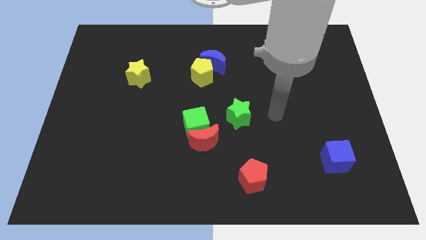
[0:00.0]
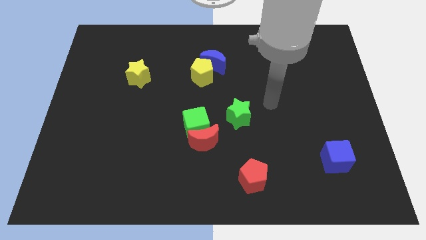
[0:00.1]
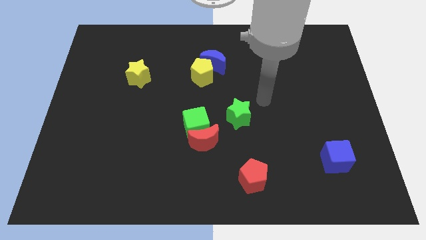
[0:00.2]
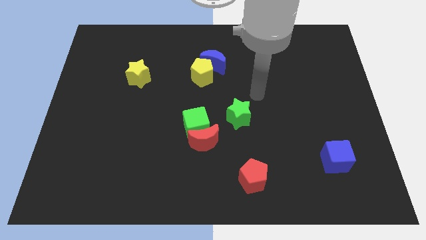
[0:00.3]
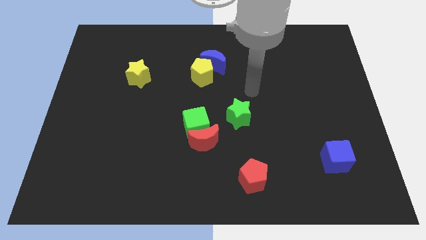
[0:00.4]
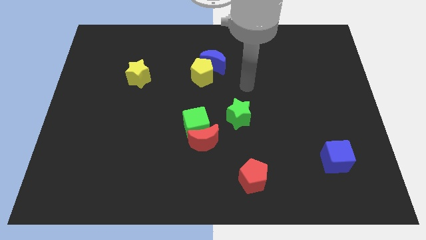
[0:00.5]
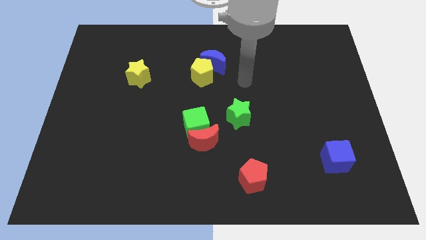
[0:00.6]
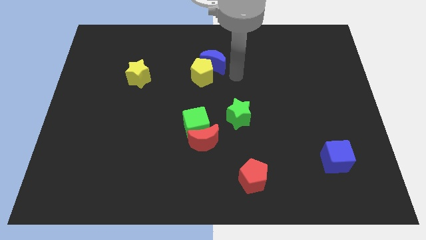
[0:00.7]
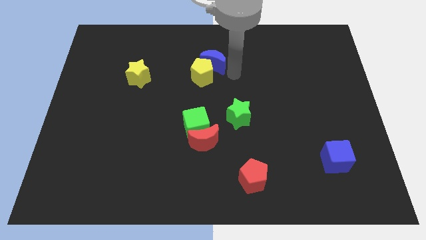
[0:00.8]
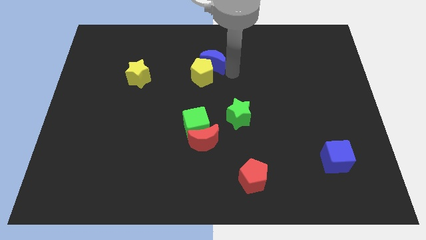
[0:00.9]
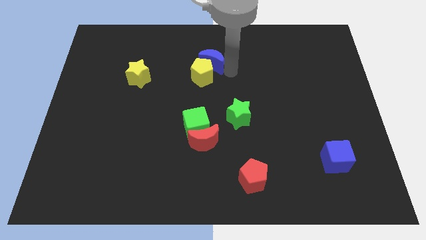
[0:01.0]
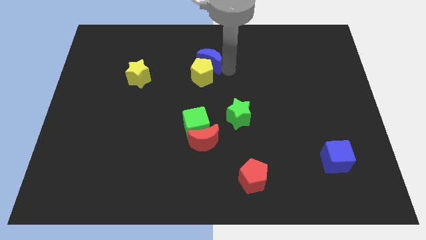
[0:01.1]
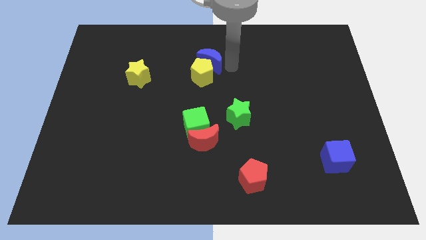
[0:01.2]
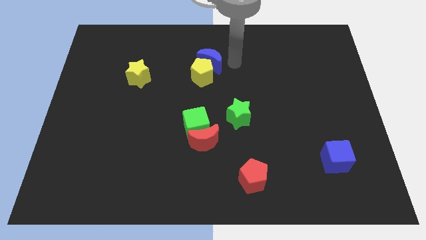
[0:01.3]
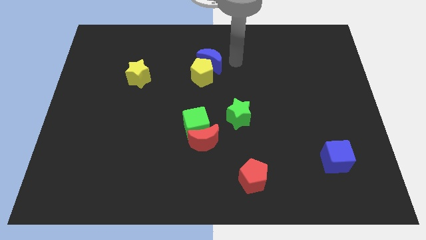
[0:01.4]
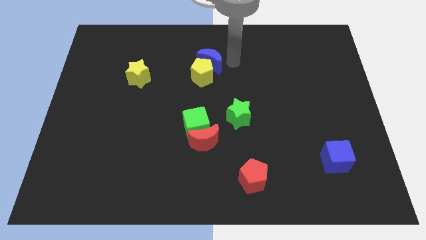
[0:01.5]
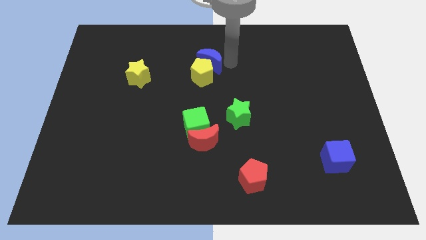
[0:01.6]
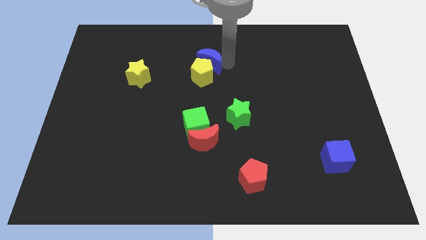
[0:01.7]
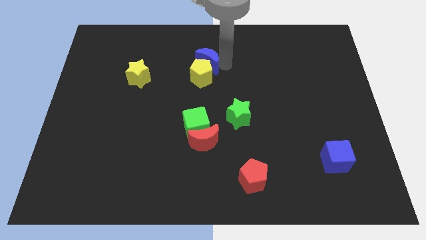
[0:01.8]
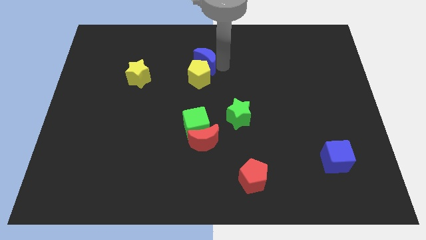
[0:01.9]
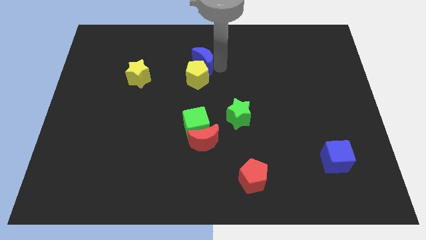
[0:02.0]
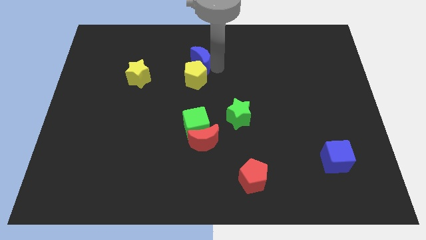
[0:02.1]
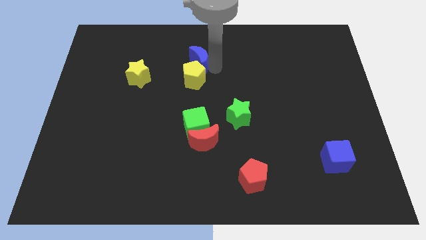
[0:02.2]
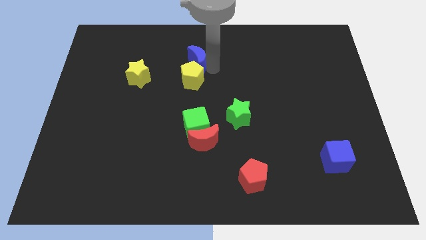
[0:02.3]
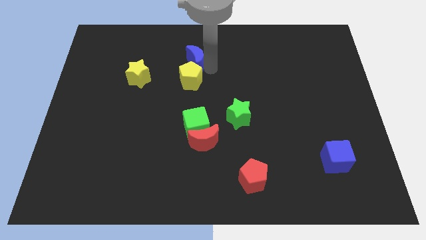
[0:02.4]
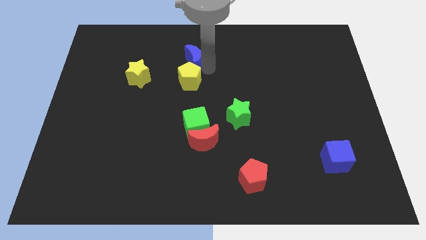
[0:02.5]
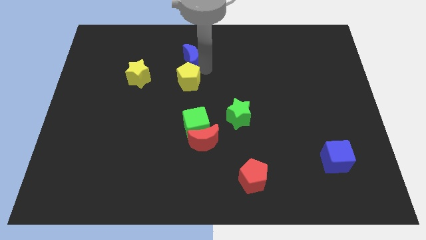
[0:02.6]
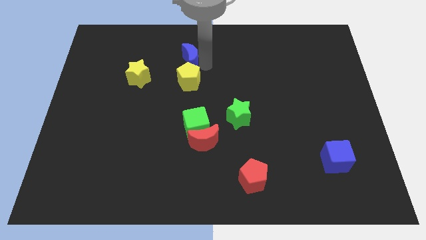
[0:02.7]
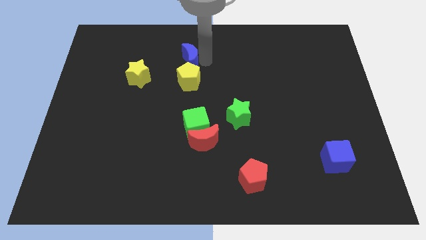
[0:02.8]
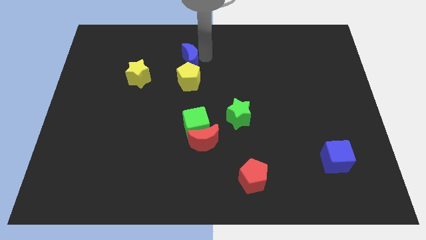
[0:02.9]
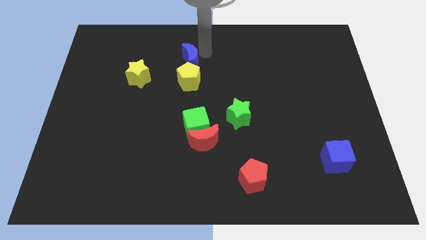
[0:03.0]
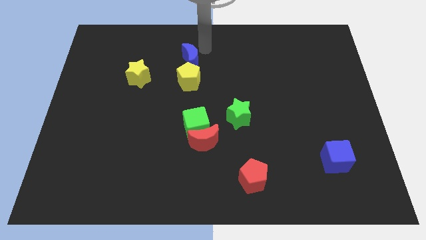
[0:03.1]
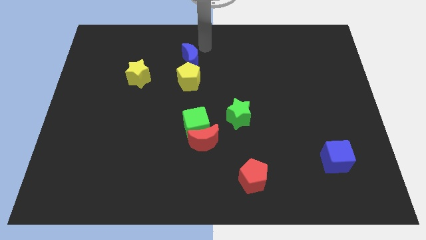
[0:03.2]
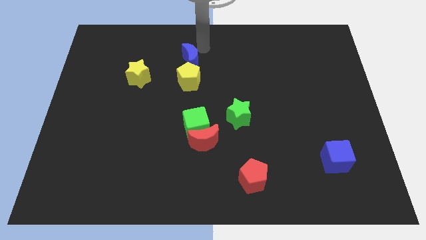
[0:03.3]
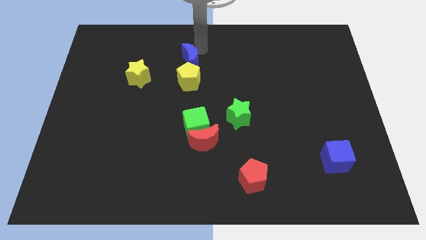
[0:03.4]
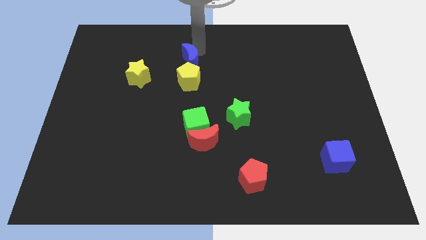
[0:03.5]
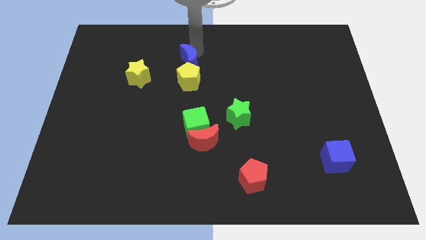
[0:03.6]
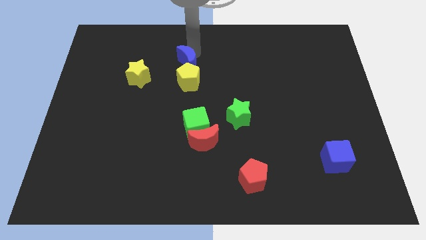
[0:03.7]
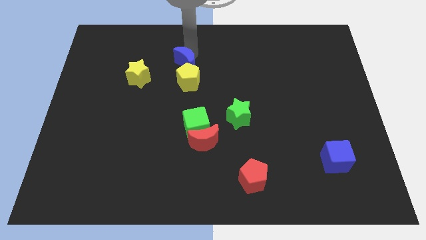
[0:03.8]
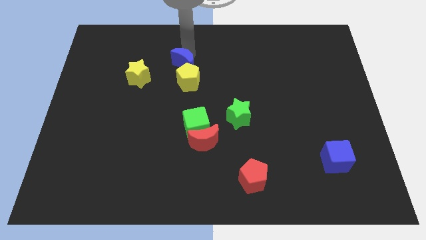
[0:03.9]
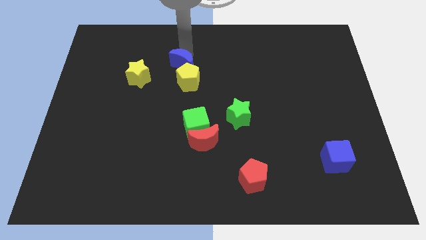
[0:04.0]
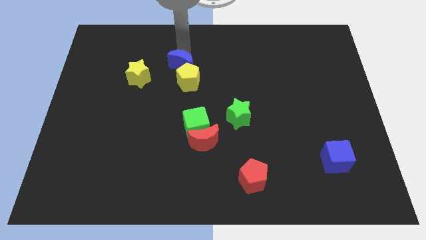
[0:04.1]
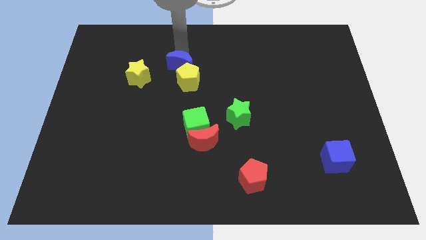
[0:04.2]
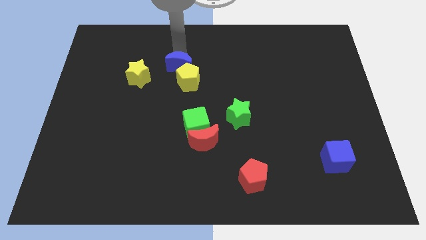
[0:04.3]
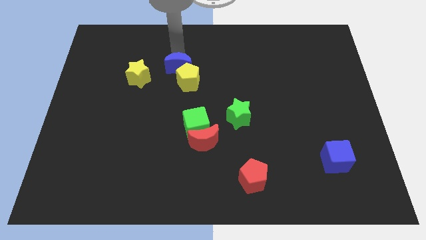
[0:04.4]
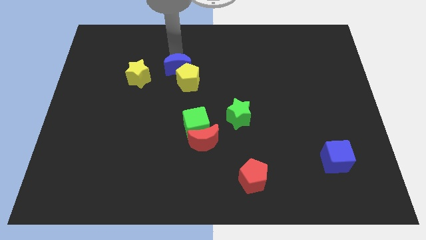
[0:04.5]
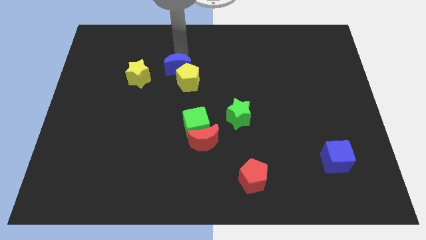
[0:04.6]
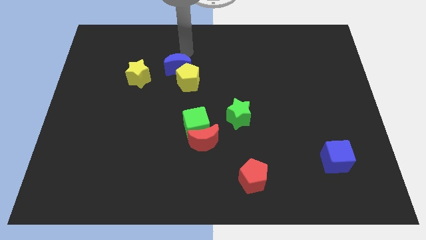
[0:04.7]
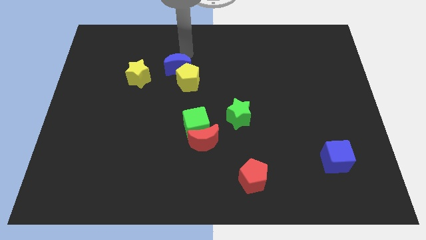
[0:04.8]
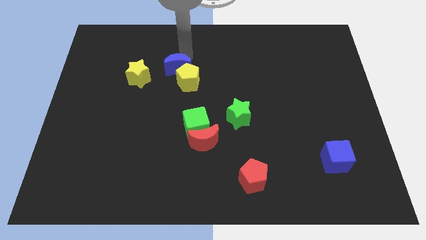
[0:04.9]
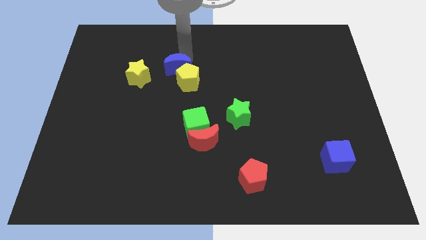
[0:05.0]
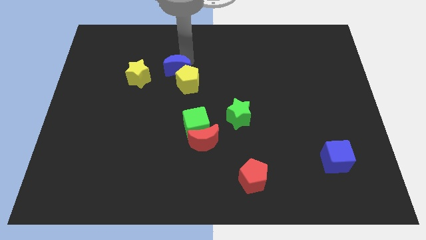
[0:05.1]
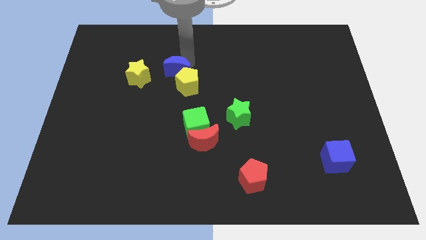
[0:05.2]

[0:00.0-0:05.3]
move the blue moon diagonally downwards and to the left a little bit

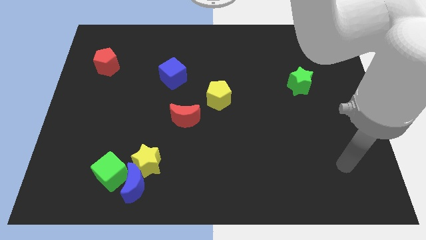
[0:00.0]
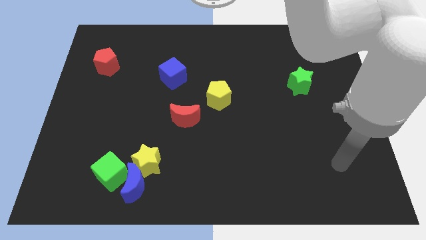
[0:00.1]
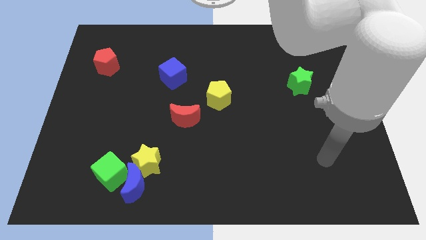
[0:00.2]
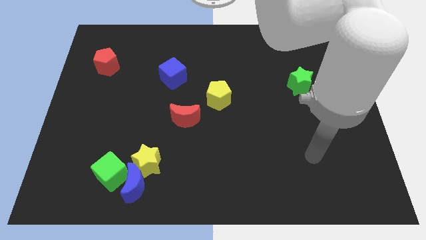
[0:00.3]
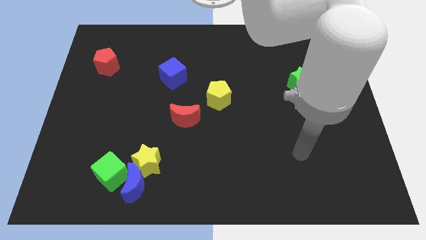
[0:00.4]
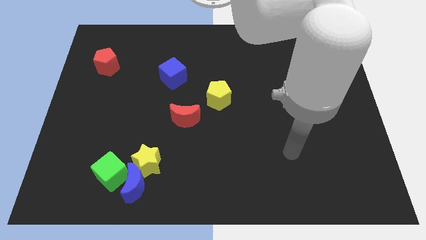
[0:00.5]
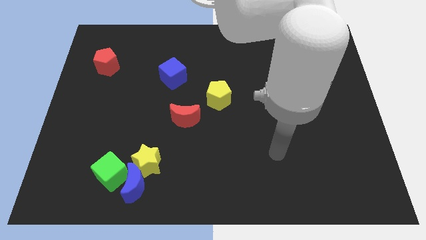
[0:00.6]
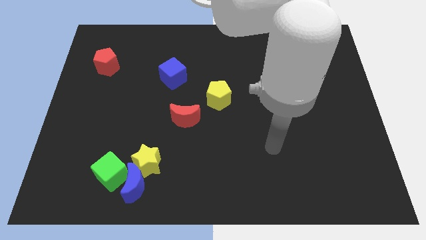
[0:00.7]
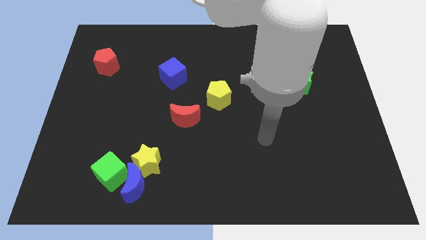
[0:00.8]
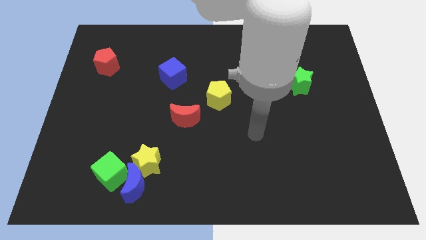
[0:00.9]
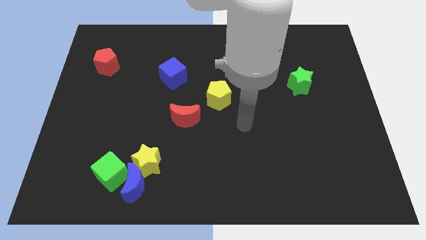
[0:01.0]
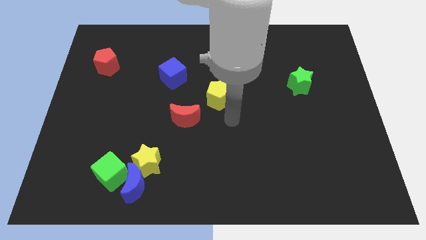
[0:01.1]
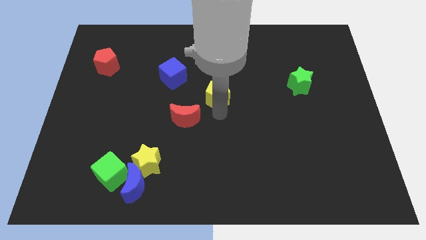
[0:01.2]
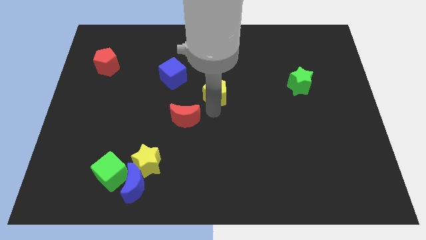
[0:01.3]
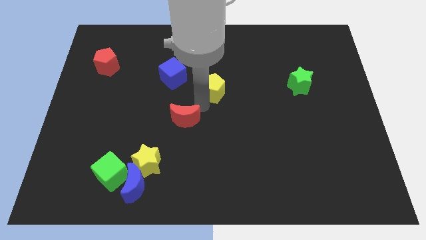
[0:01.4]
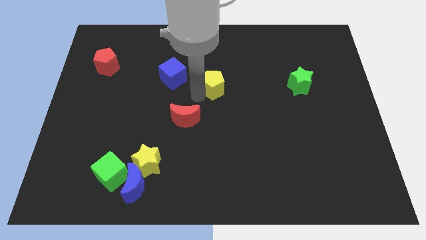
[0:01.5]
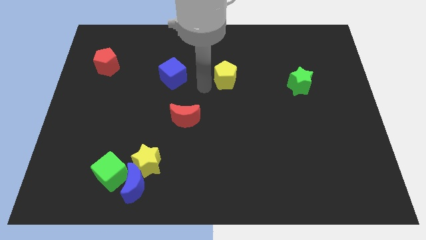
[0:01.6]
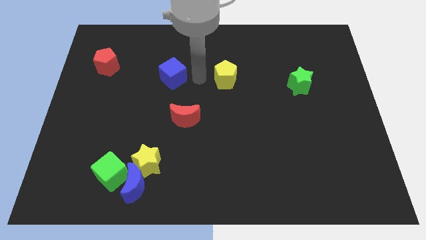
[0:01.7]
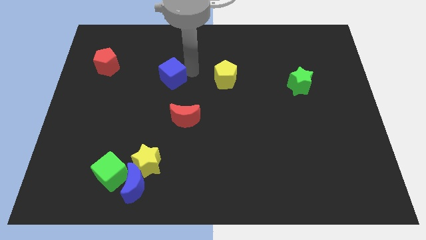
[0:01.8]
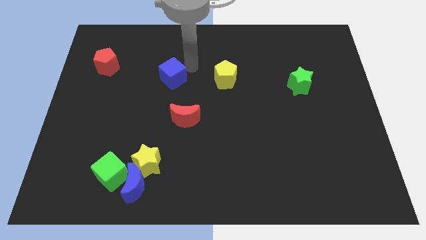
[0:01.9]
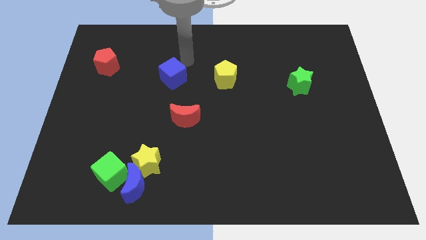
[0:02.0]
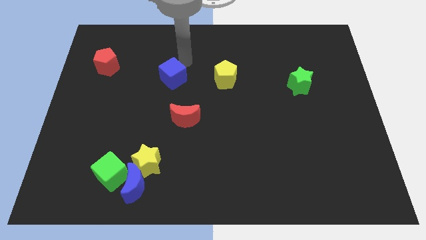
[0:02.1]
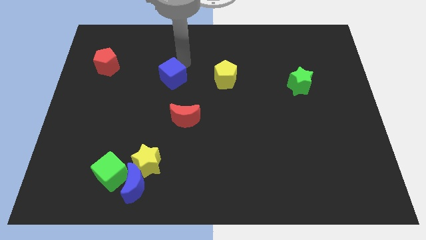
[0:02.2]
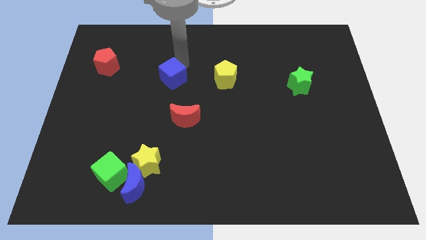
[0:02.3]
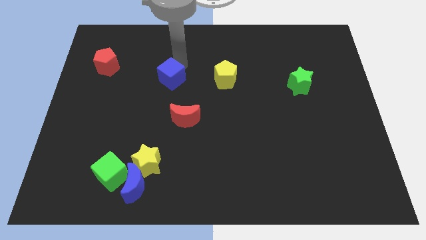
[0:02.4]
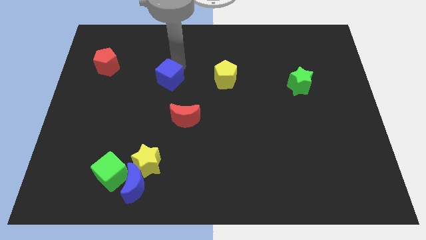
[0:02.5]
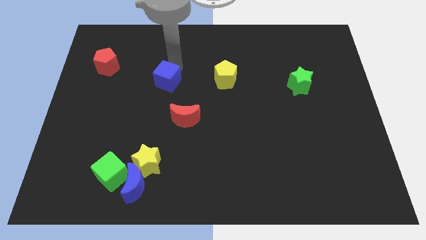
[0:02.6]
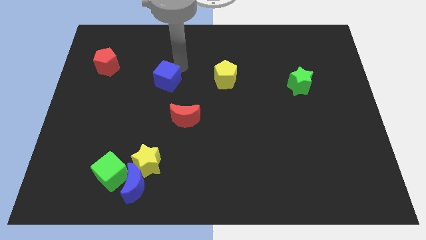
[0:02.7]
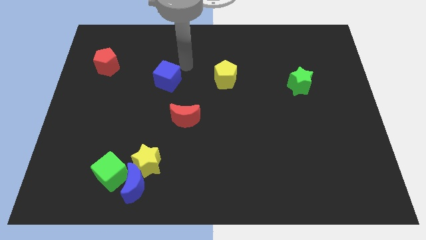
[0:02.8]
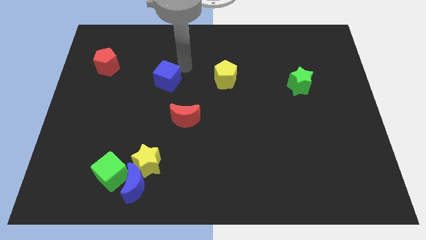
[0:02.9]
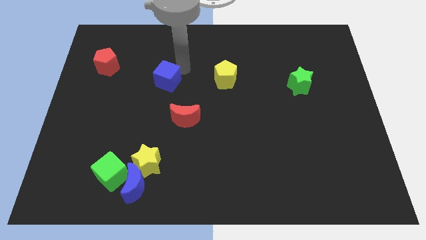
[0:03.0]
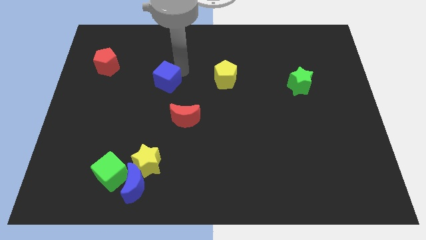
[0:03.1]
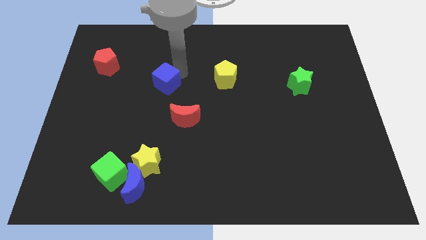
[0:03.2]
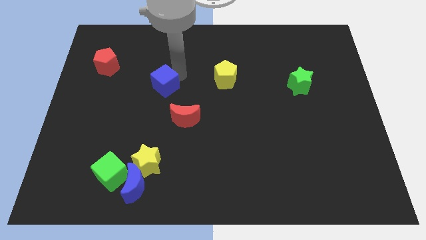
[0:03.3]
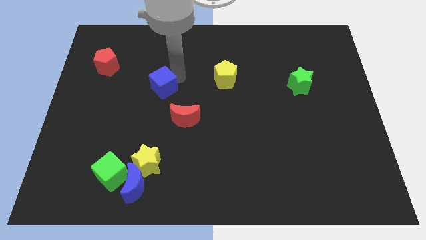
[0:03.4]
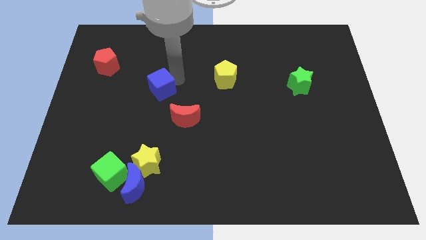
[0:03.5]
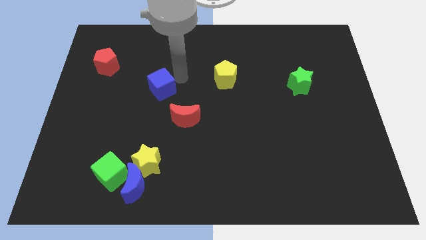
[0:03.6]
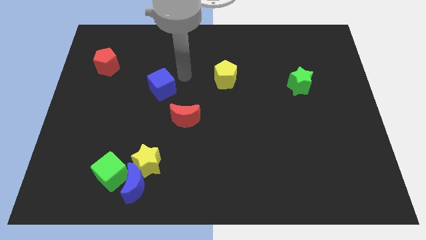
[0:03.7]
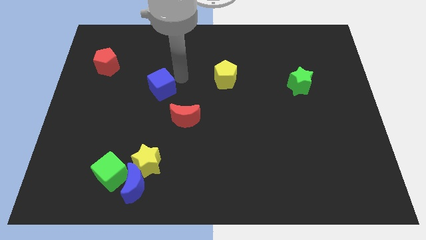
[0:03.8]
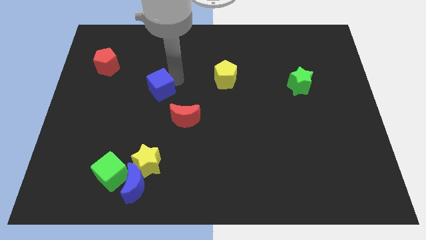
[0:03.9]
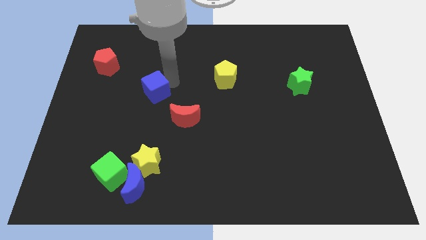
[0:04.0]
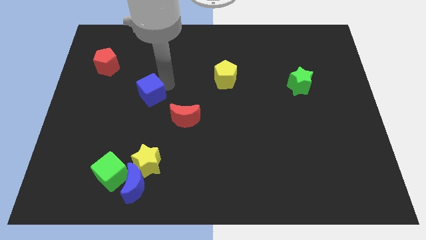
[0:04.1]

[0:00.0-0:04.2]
slightly push the blue cube diagonally down and left
